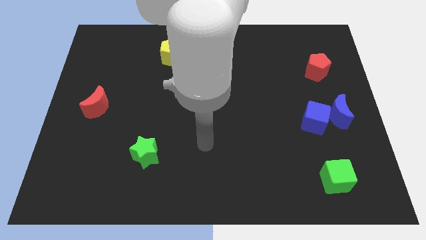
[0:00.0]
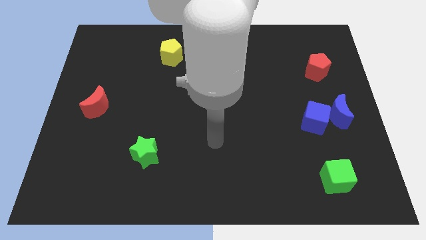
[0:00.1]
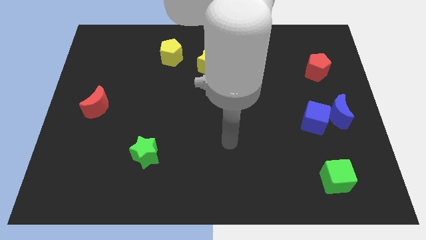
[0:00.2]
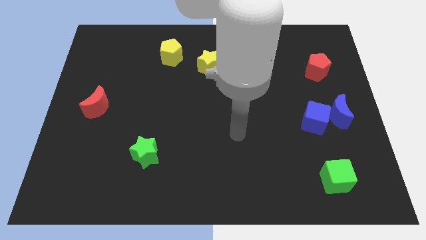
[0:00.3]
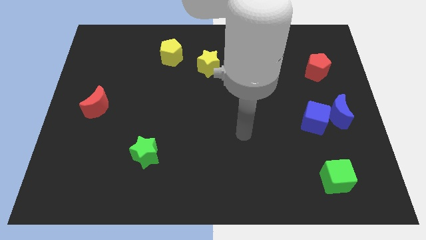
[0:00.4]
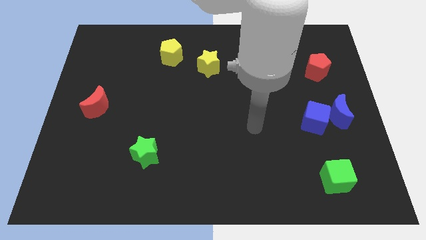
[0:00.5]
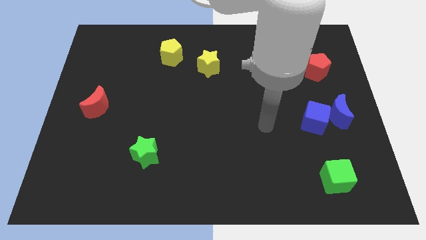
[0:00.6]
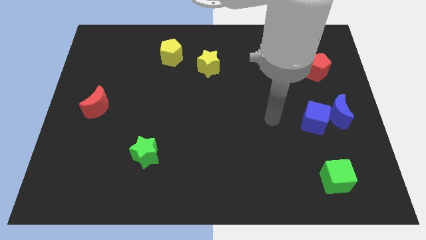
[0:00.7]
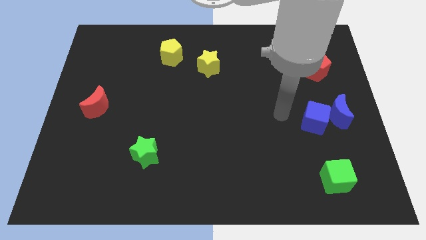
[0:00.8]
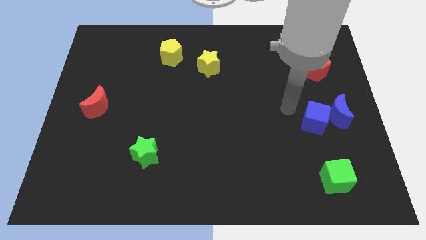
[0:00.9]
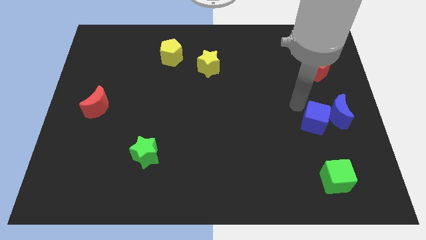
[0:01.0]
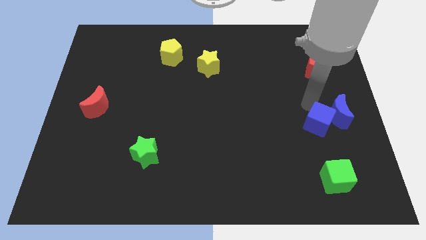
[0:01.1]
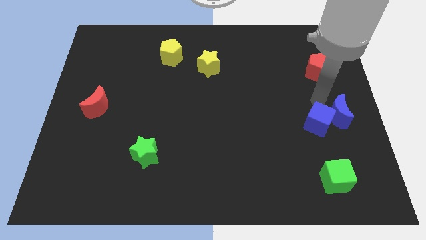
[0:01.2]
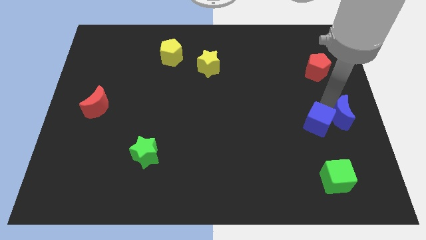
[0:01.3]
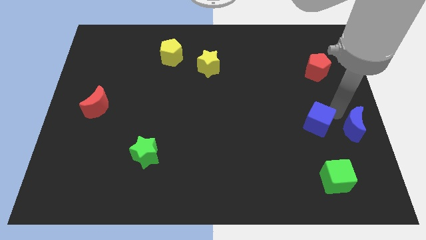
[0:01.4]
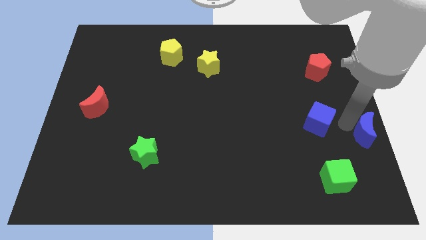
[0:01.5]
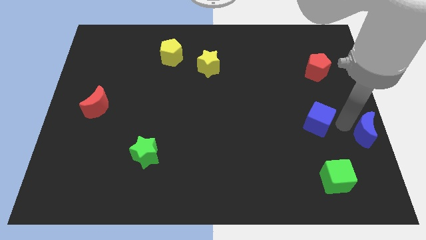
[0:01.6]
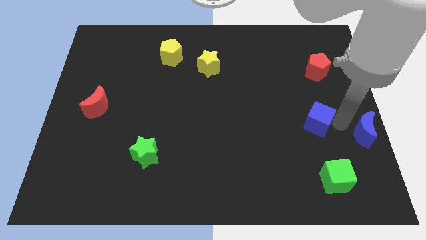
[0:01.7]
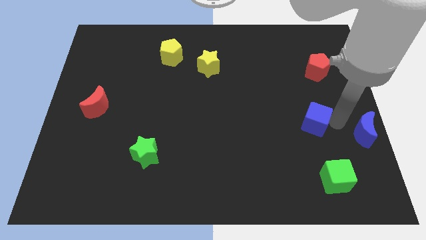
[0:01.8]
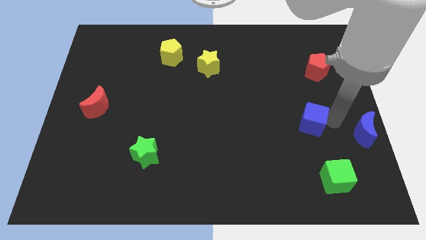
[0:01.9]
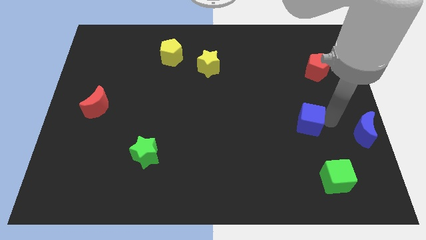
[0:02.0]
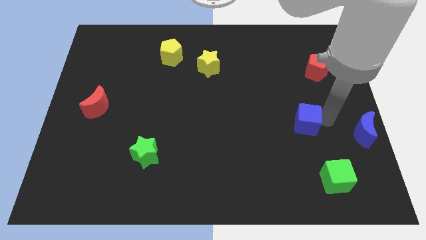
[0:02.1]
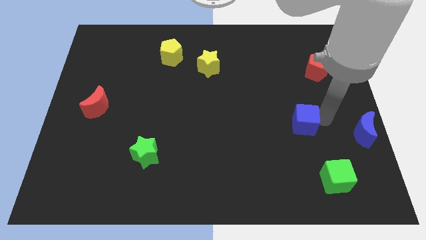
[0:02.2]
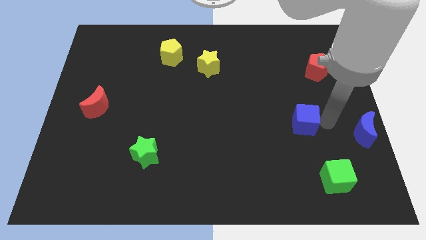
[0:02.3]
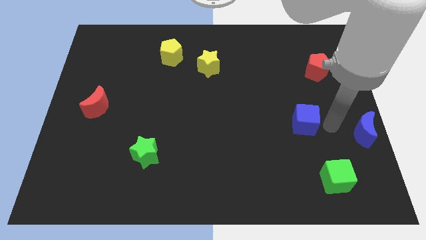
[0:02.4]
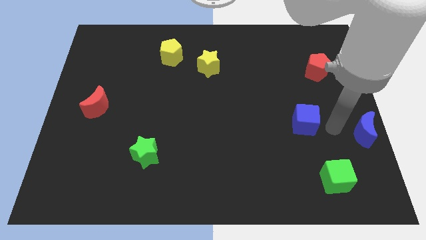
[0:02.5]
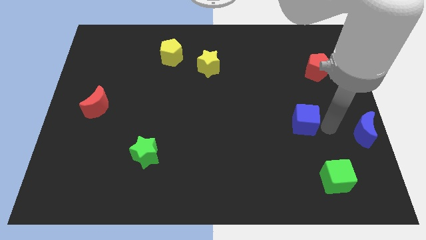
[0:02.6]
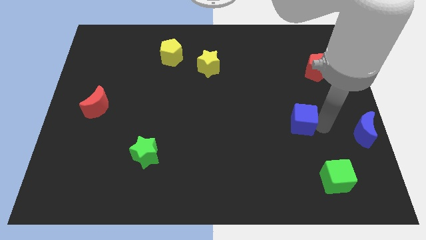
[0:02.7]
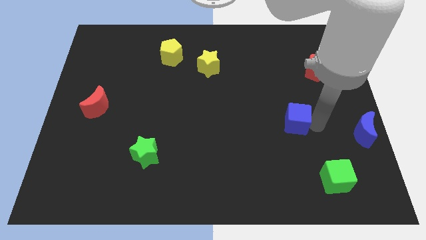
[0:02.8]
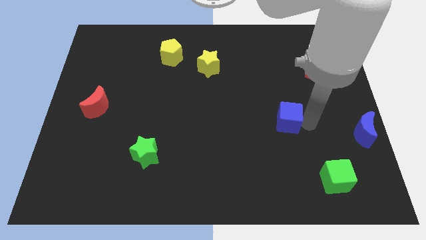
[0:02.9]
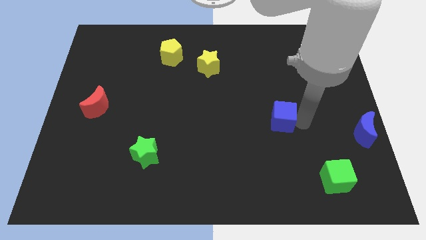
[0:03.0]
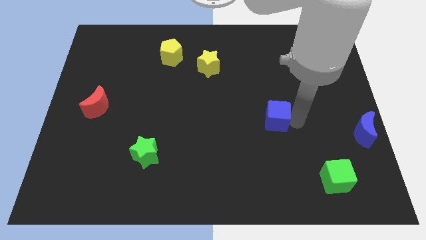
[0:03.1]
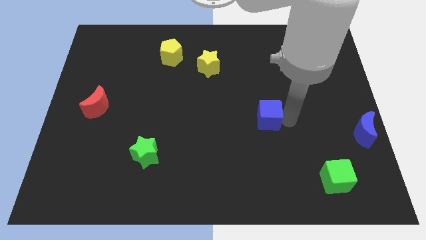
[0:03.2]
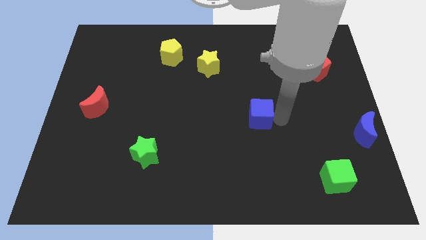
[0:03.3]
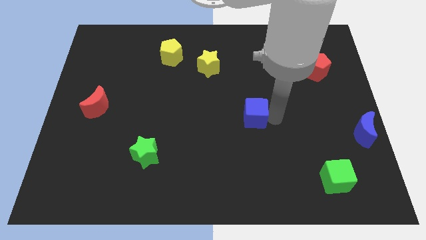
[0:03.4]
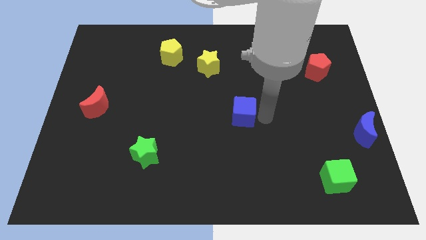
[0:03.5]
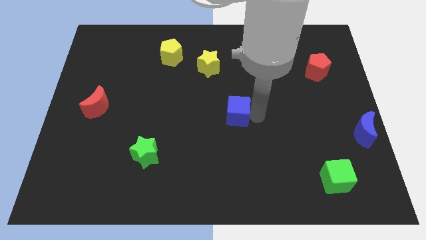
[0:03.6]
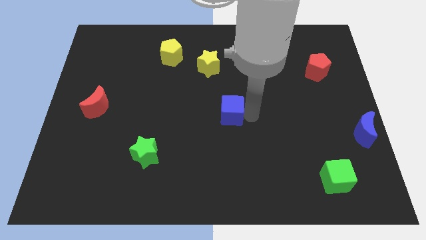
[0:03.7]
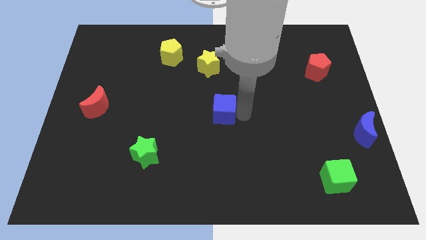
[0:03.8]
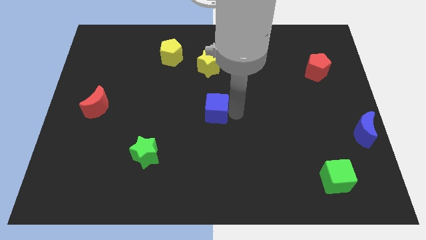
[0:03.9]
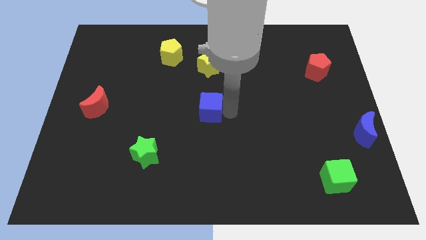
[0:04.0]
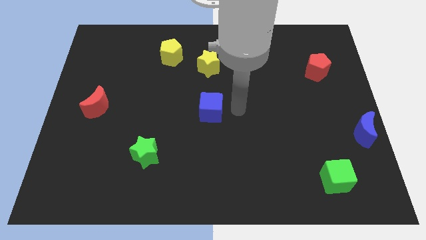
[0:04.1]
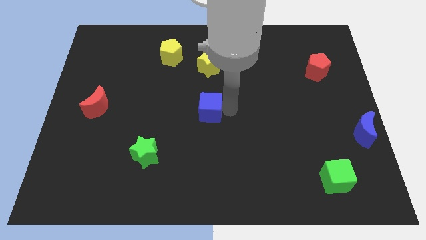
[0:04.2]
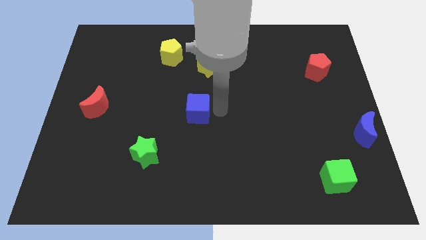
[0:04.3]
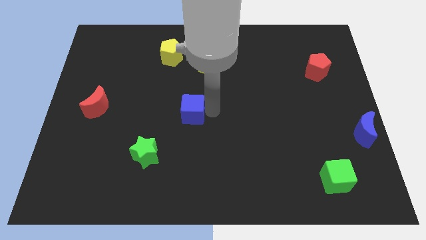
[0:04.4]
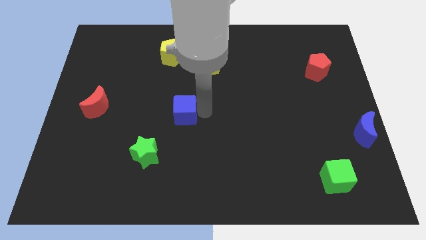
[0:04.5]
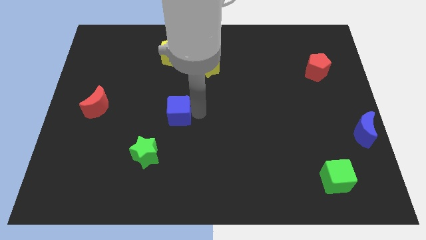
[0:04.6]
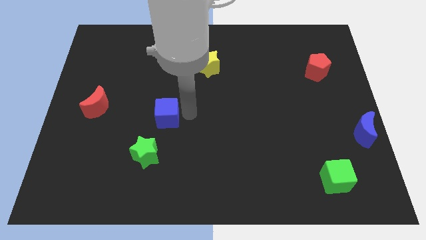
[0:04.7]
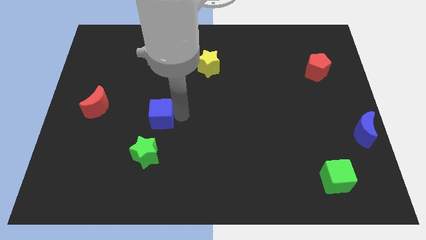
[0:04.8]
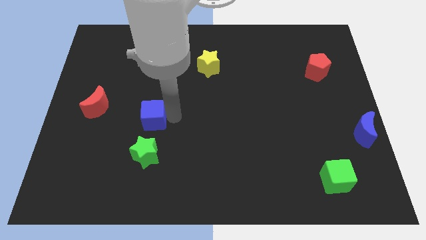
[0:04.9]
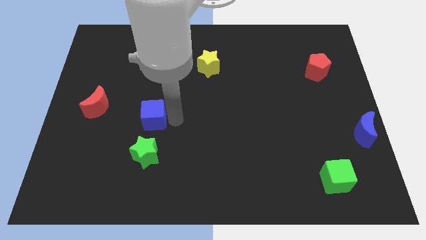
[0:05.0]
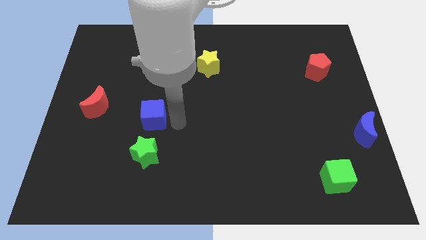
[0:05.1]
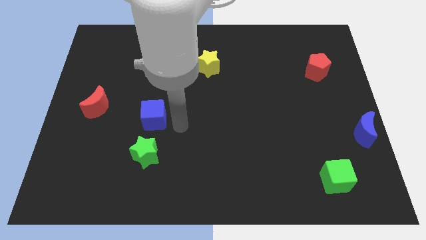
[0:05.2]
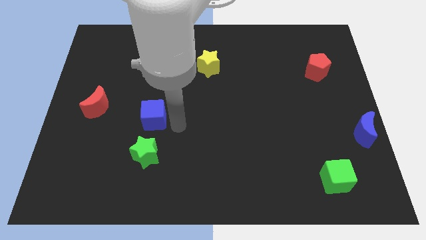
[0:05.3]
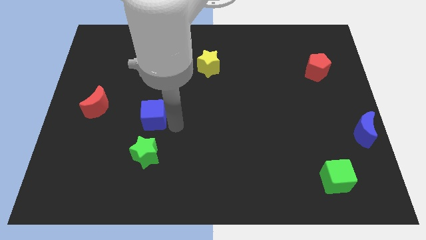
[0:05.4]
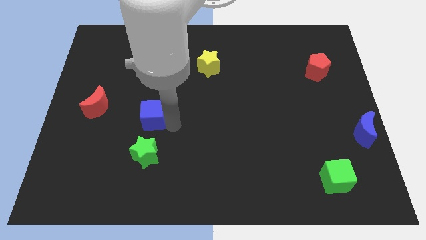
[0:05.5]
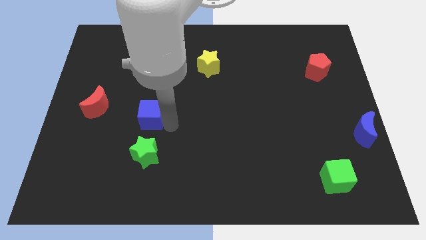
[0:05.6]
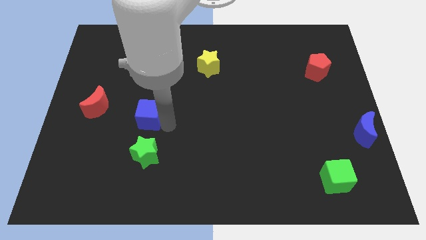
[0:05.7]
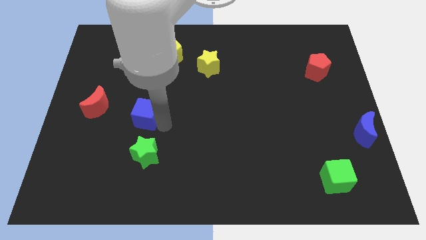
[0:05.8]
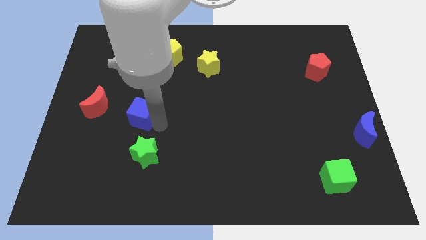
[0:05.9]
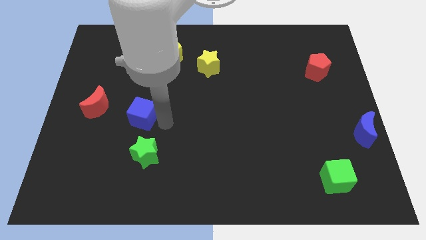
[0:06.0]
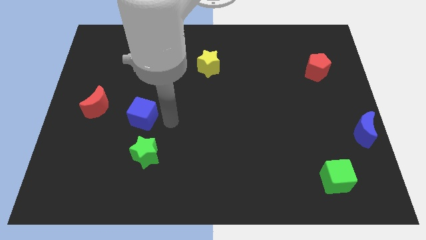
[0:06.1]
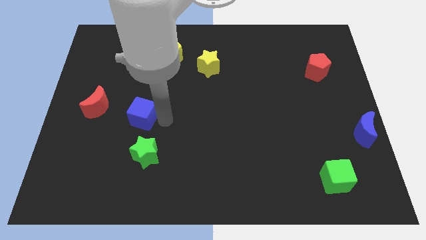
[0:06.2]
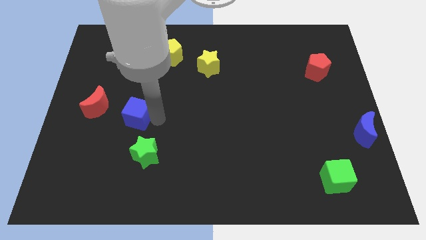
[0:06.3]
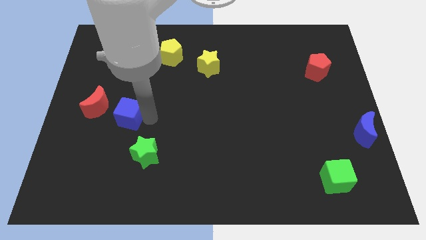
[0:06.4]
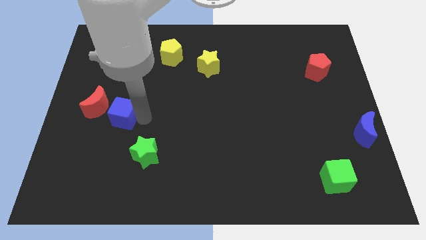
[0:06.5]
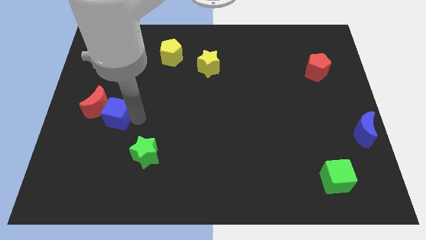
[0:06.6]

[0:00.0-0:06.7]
move the blue cube next to the red moon

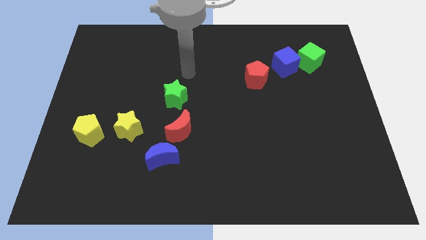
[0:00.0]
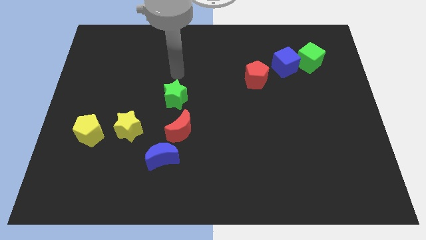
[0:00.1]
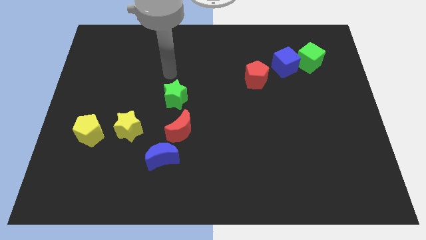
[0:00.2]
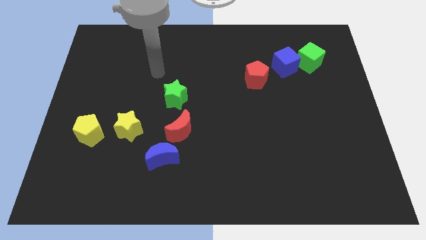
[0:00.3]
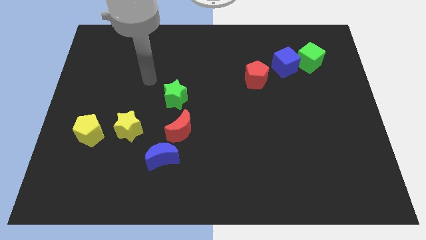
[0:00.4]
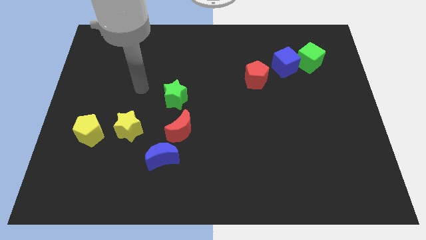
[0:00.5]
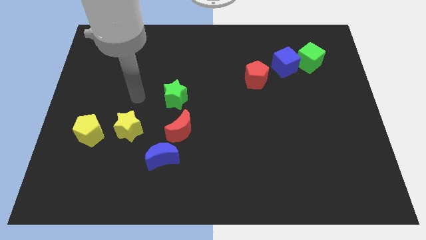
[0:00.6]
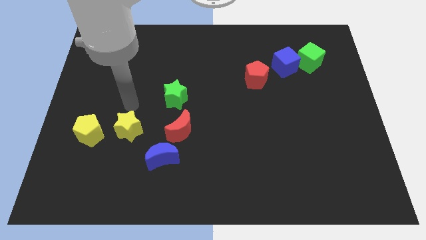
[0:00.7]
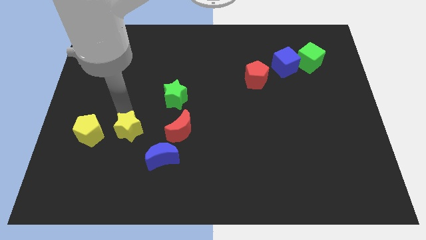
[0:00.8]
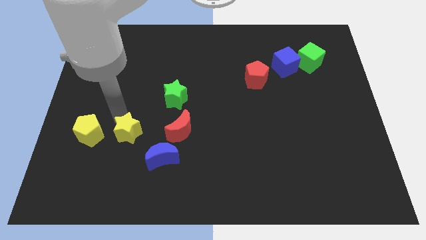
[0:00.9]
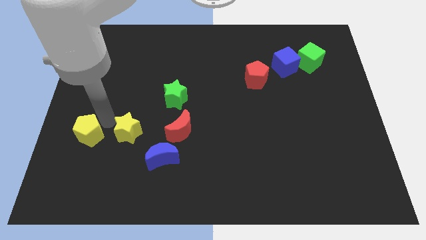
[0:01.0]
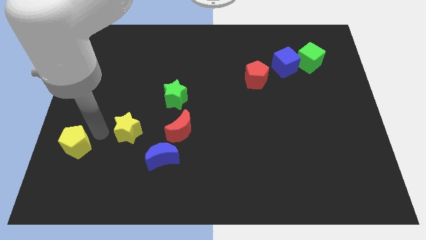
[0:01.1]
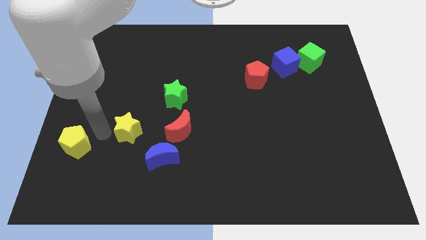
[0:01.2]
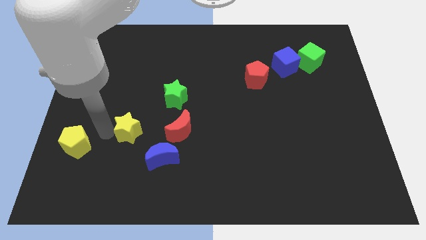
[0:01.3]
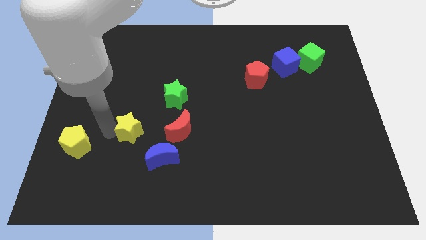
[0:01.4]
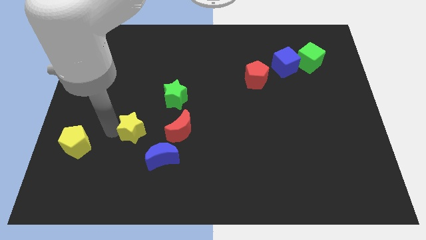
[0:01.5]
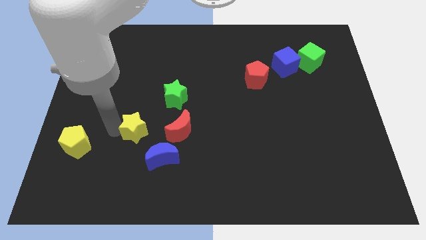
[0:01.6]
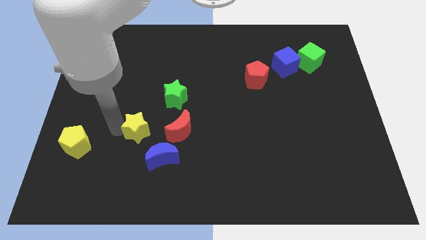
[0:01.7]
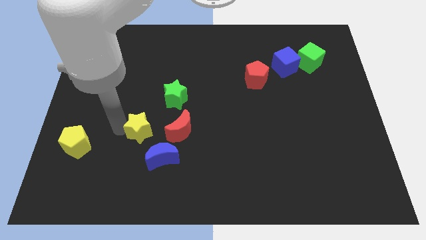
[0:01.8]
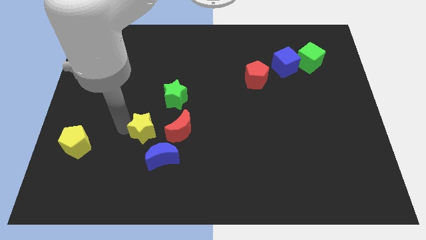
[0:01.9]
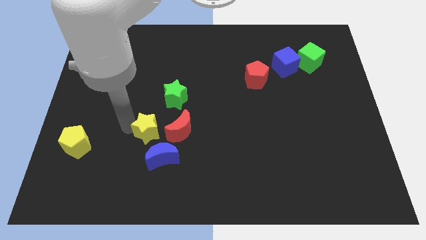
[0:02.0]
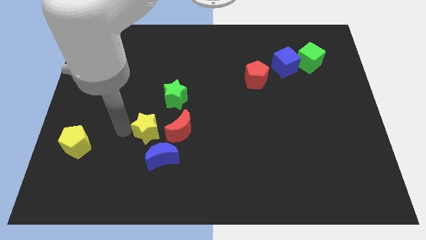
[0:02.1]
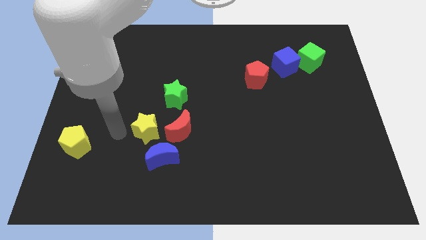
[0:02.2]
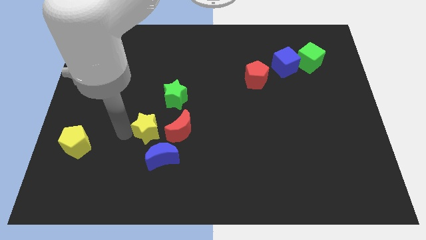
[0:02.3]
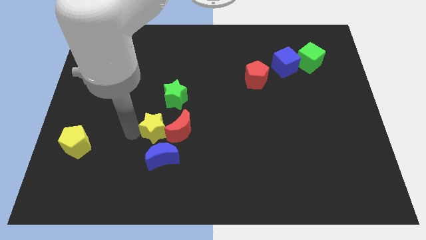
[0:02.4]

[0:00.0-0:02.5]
put the yellow star next to the red moon
